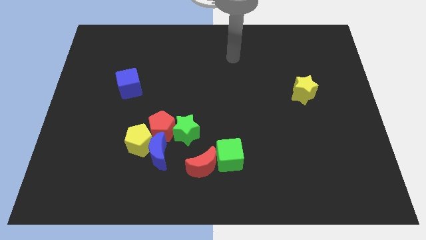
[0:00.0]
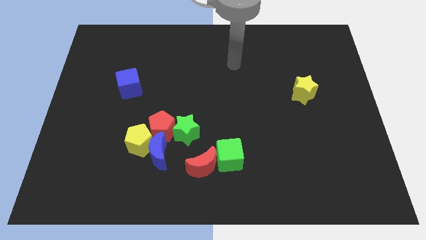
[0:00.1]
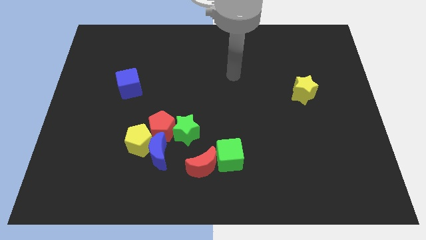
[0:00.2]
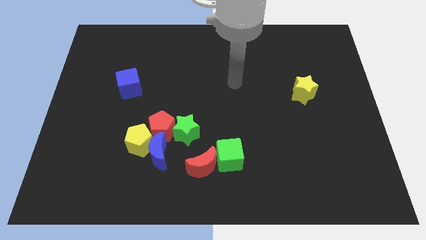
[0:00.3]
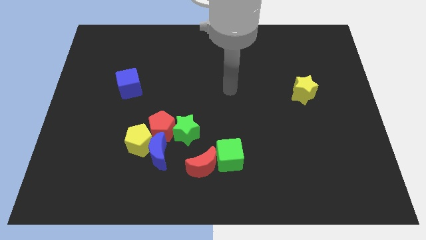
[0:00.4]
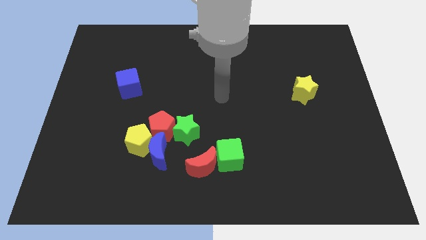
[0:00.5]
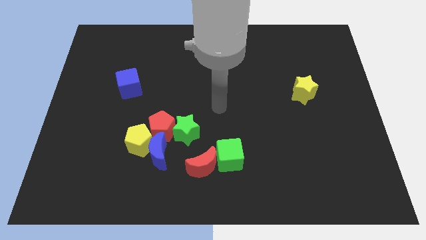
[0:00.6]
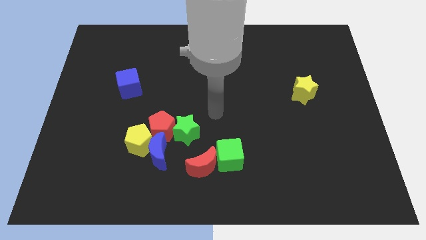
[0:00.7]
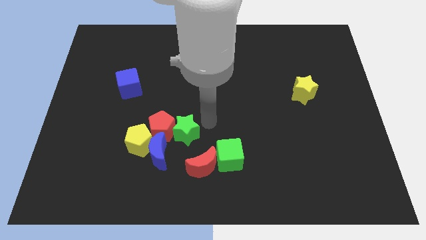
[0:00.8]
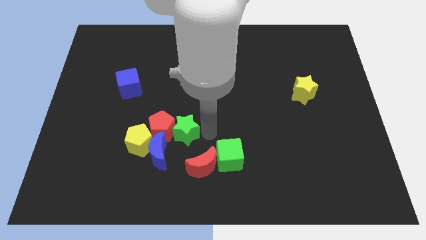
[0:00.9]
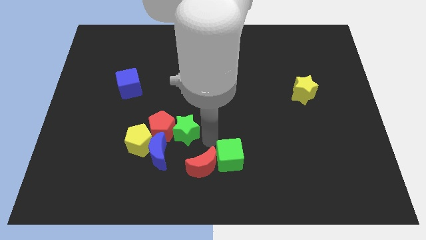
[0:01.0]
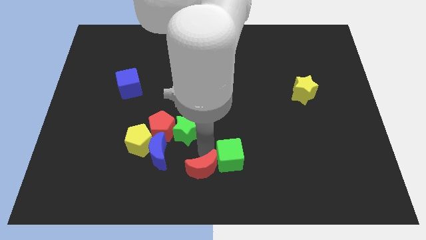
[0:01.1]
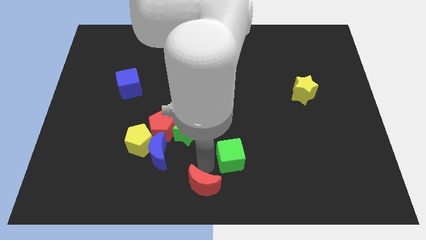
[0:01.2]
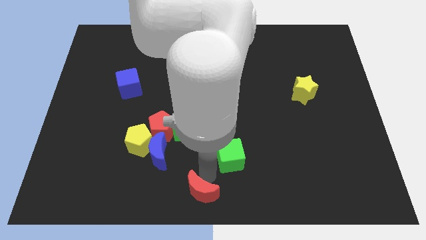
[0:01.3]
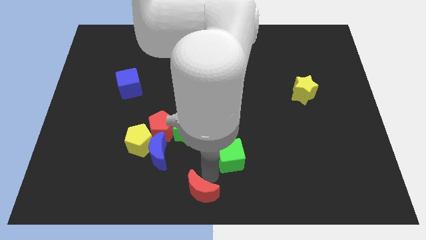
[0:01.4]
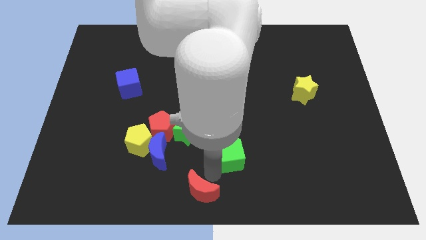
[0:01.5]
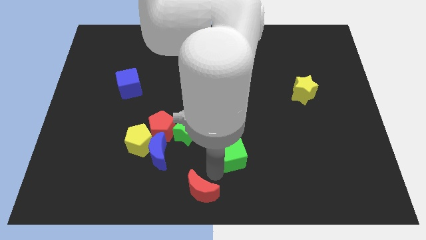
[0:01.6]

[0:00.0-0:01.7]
pull the green cube apart from the red moon

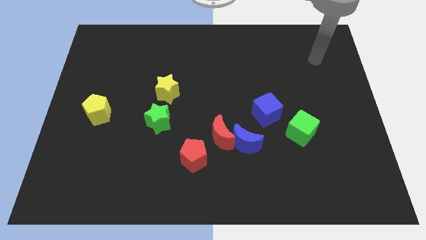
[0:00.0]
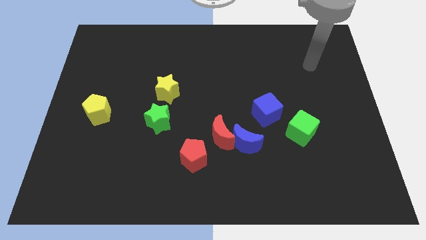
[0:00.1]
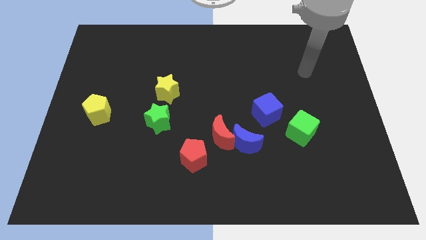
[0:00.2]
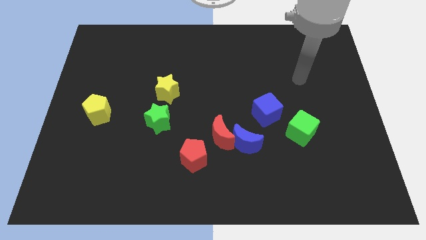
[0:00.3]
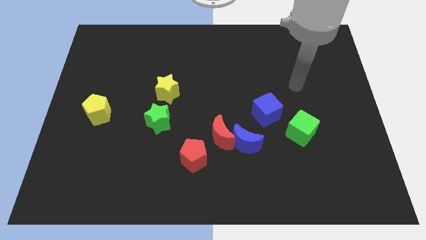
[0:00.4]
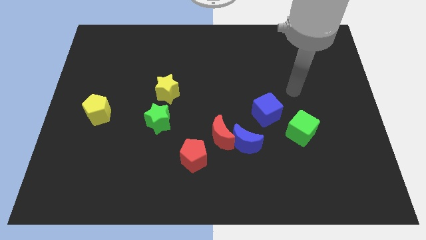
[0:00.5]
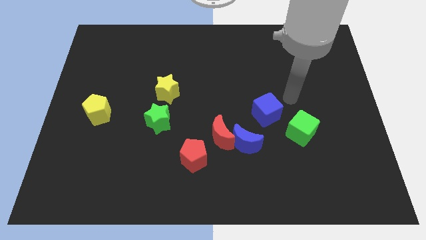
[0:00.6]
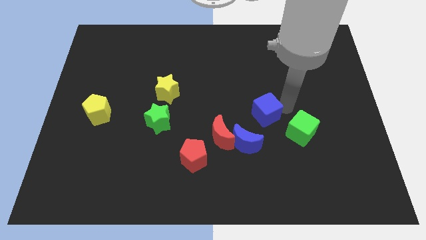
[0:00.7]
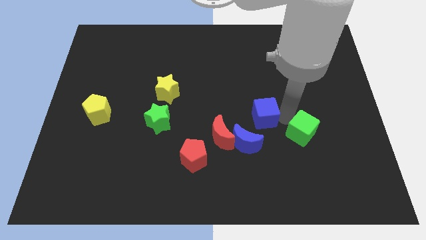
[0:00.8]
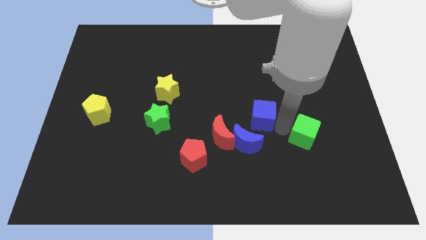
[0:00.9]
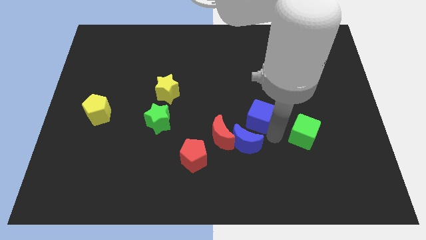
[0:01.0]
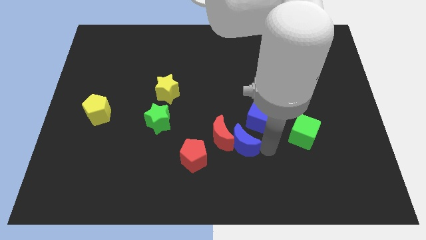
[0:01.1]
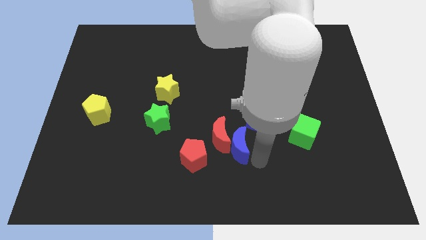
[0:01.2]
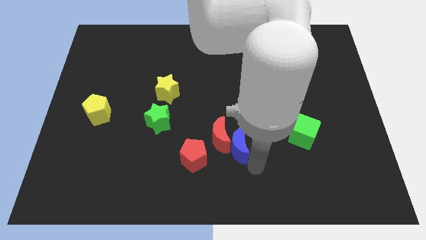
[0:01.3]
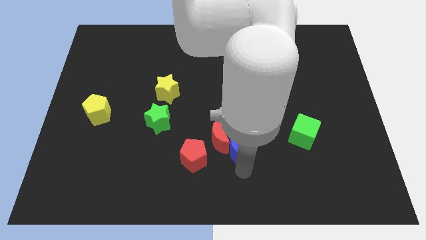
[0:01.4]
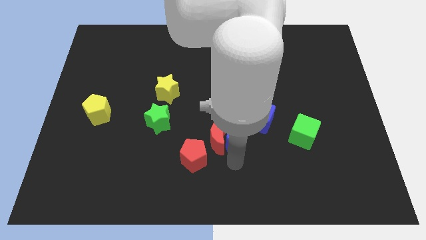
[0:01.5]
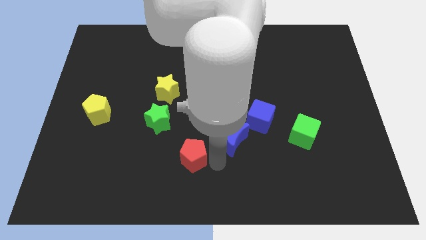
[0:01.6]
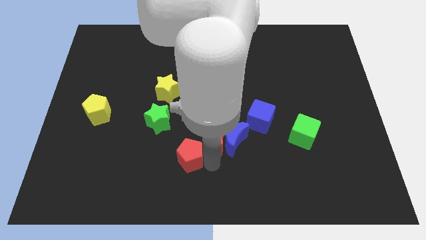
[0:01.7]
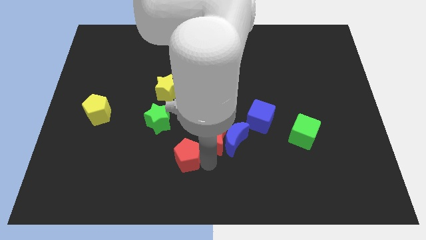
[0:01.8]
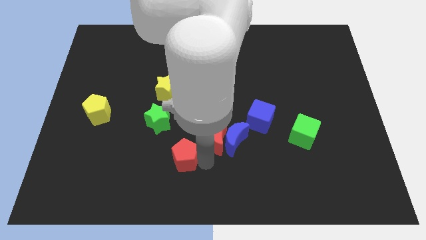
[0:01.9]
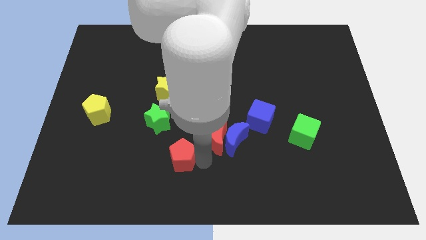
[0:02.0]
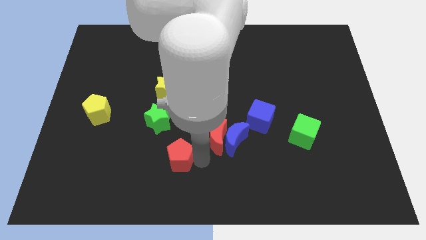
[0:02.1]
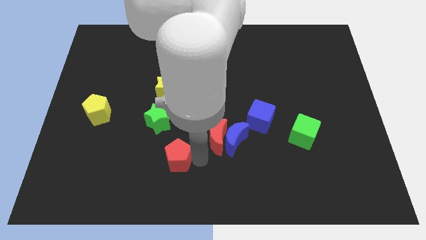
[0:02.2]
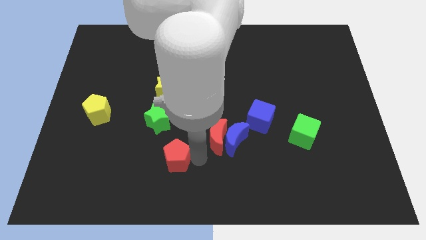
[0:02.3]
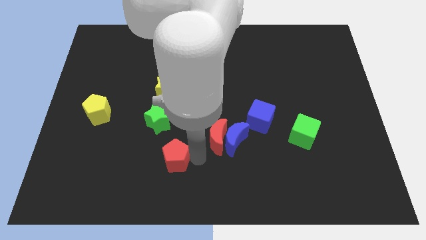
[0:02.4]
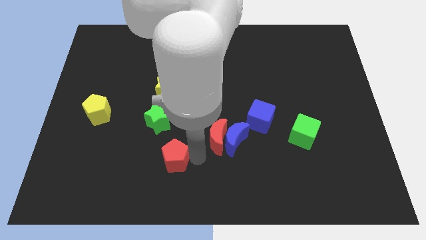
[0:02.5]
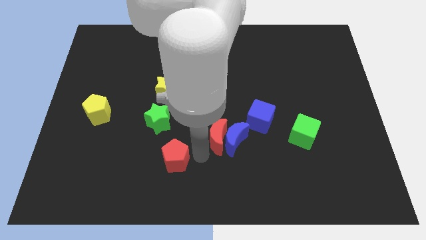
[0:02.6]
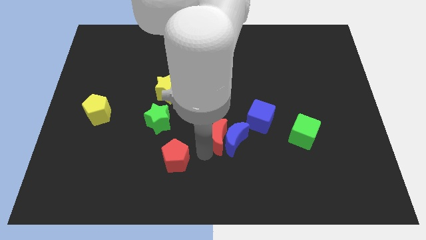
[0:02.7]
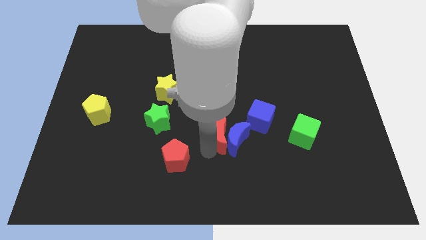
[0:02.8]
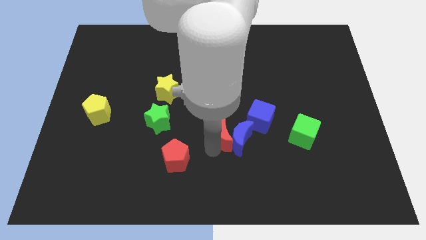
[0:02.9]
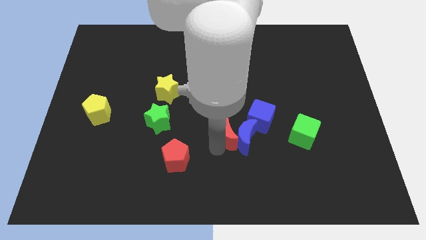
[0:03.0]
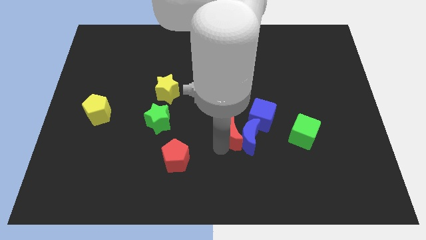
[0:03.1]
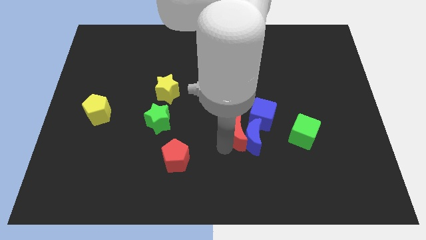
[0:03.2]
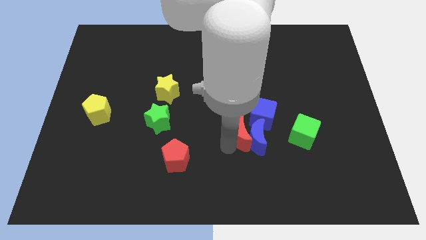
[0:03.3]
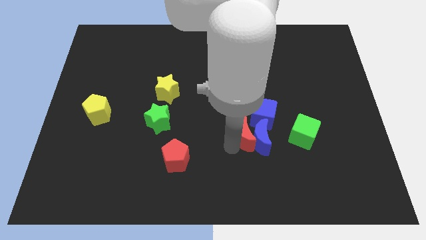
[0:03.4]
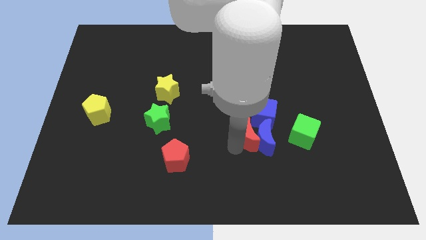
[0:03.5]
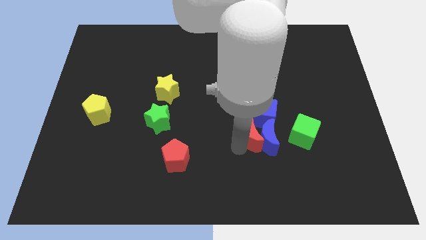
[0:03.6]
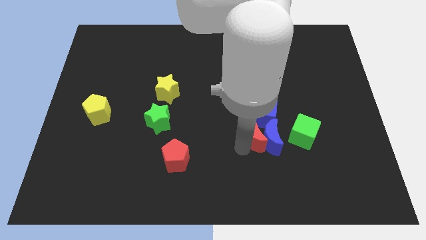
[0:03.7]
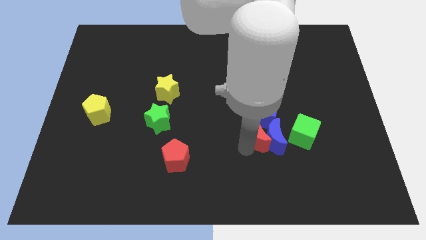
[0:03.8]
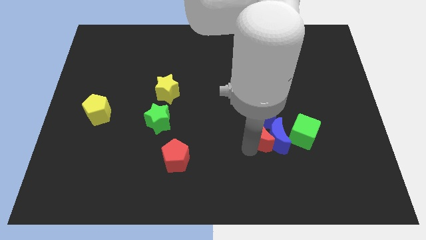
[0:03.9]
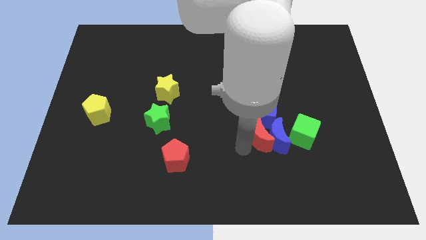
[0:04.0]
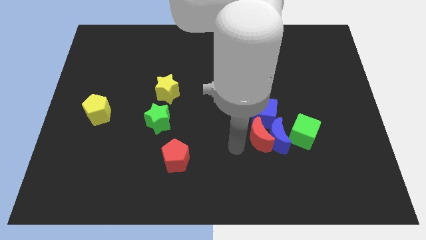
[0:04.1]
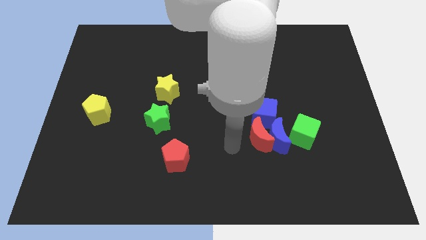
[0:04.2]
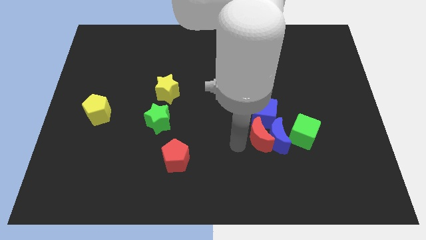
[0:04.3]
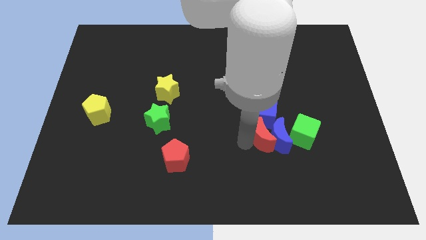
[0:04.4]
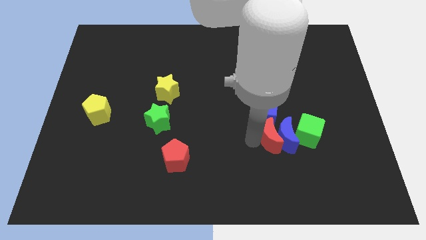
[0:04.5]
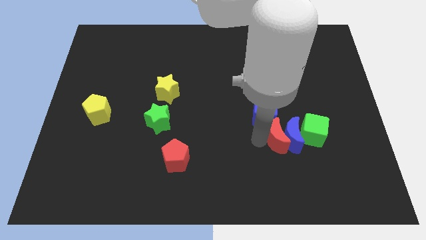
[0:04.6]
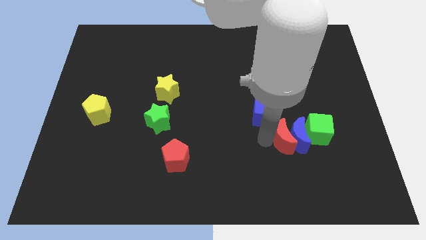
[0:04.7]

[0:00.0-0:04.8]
pull the red moon apart from the blue moon and red pentagon

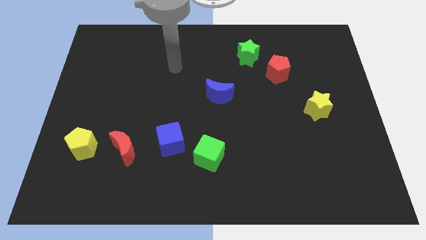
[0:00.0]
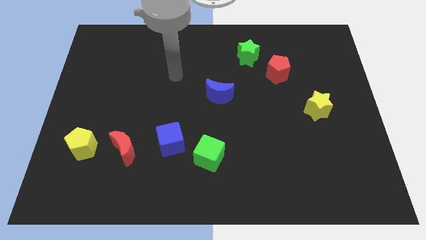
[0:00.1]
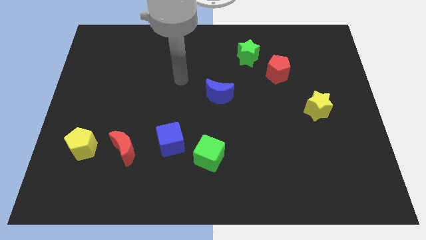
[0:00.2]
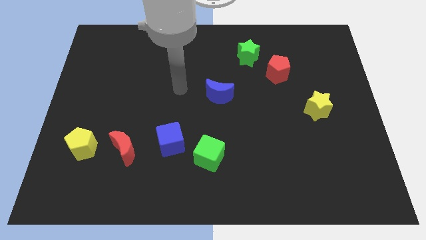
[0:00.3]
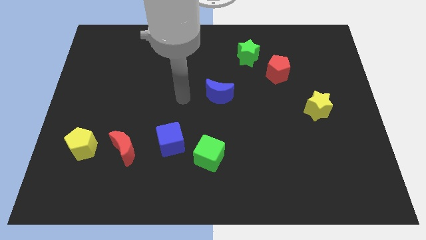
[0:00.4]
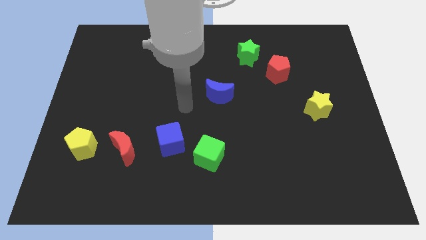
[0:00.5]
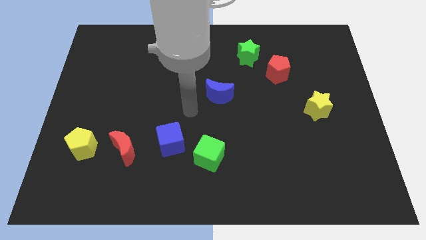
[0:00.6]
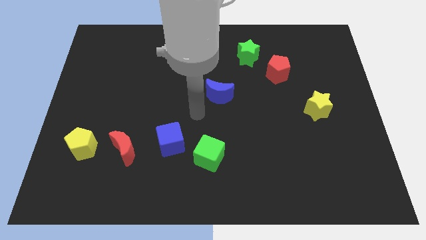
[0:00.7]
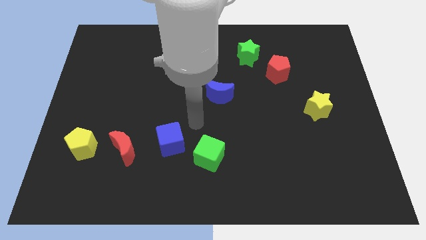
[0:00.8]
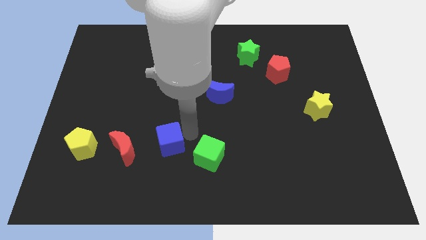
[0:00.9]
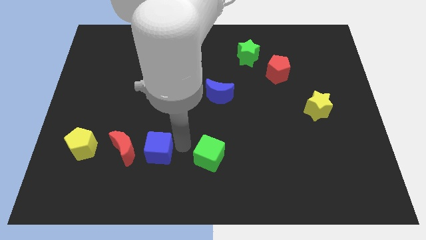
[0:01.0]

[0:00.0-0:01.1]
move the green cube away from the blue cube

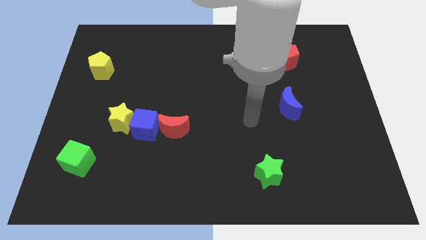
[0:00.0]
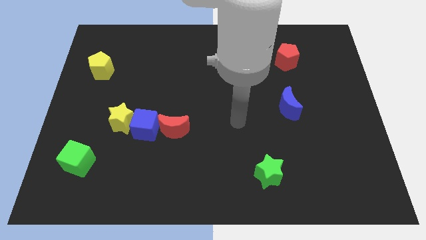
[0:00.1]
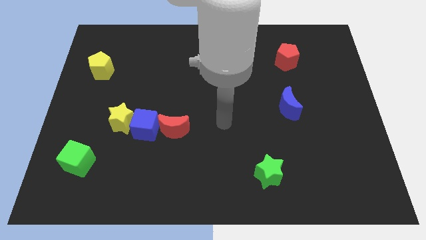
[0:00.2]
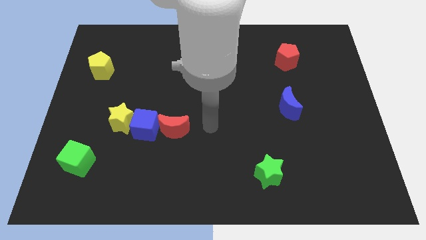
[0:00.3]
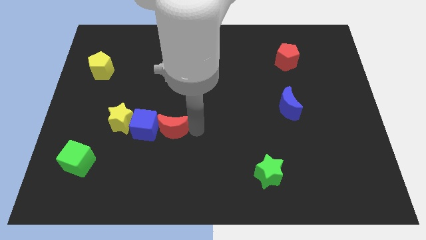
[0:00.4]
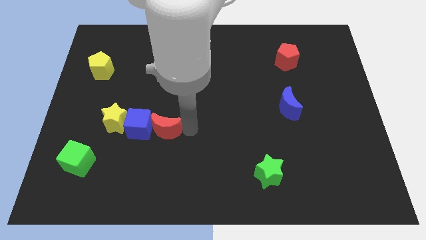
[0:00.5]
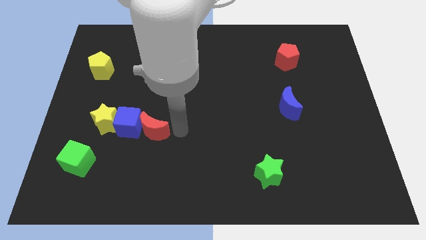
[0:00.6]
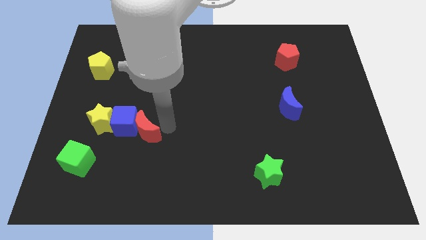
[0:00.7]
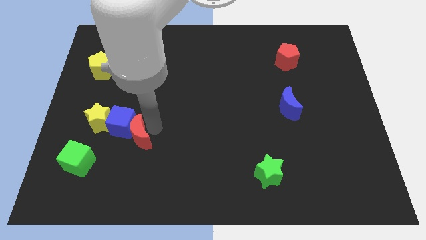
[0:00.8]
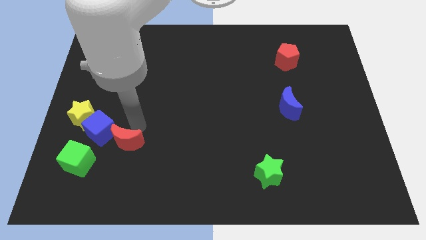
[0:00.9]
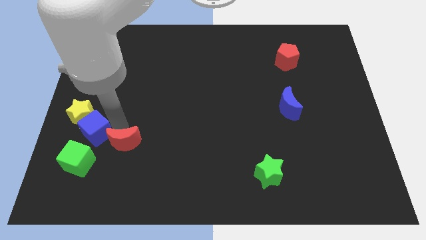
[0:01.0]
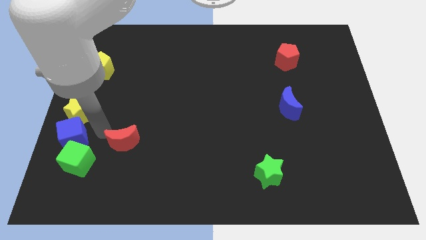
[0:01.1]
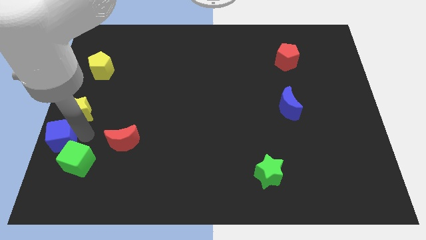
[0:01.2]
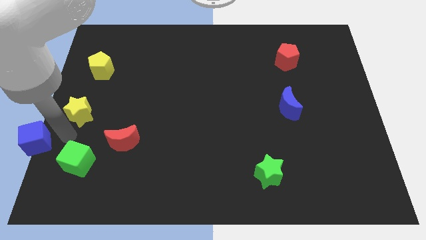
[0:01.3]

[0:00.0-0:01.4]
move the yellow star away from the blue cube

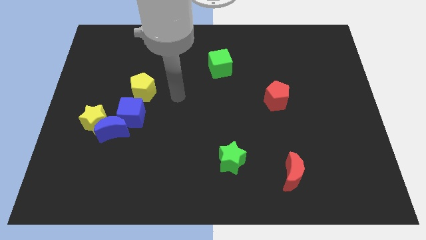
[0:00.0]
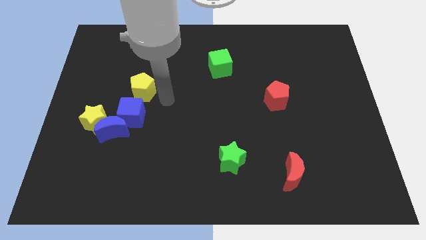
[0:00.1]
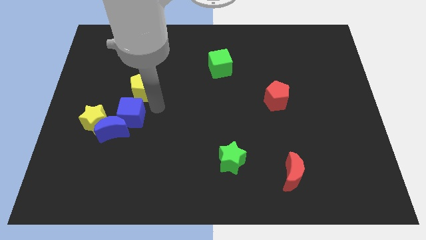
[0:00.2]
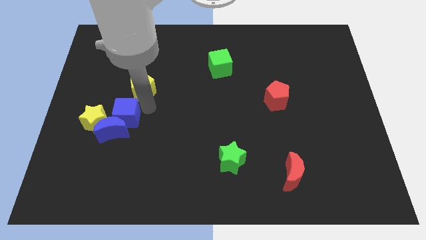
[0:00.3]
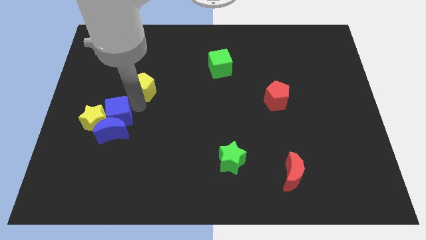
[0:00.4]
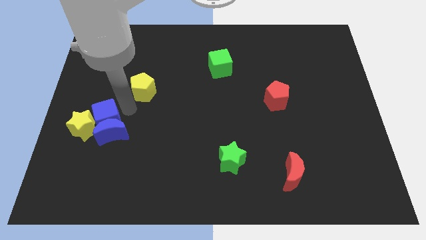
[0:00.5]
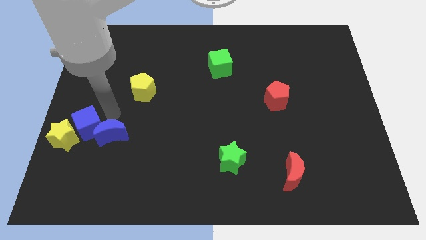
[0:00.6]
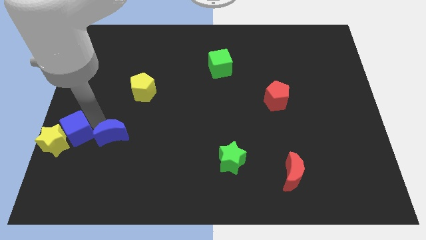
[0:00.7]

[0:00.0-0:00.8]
move the blue moon away from the yellow star and blue cube
